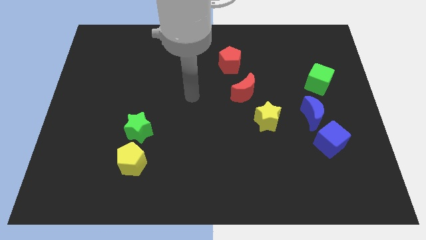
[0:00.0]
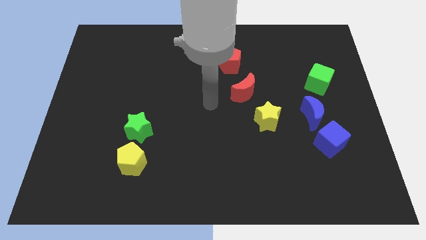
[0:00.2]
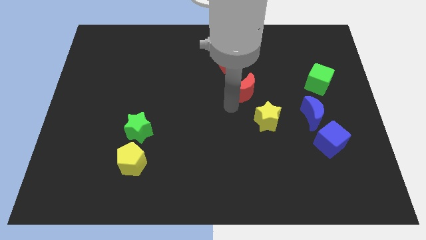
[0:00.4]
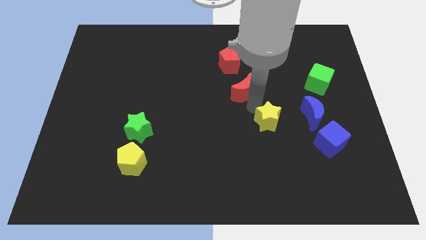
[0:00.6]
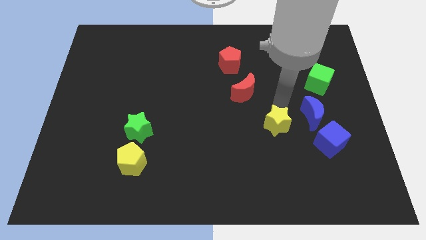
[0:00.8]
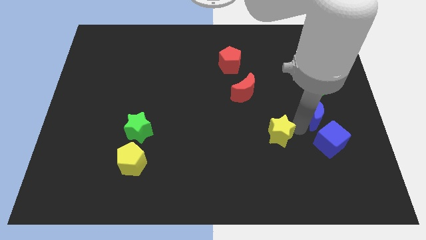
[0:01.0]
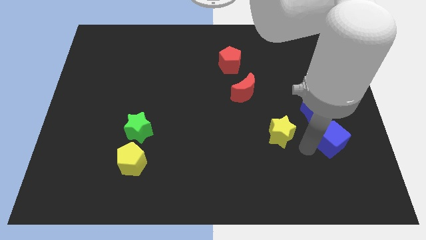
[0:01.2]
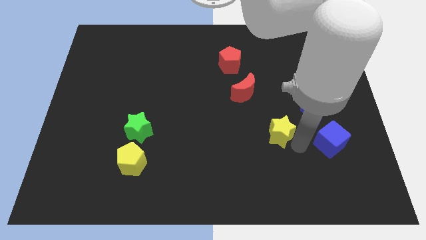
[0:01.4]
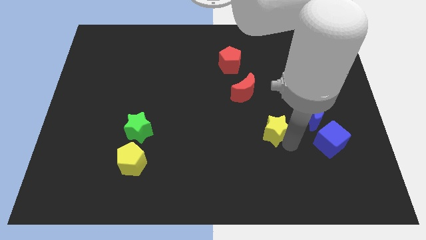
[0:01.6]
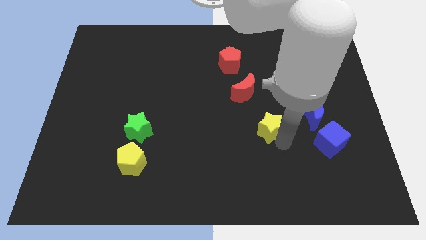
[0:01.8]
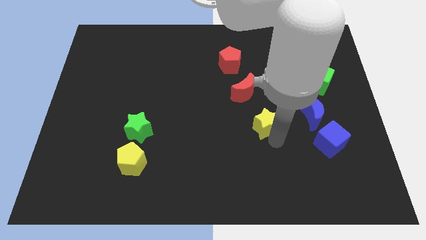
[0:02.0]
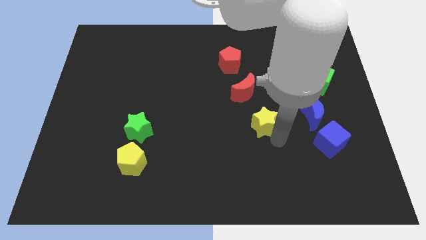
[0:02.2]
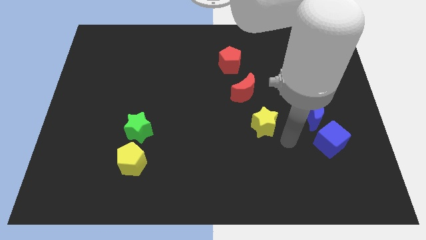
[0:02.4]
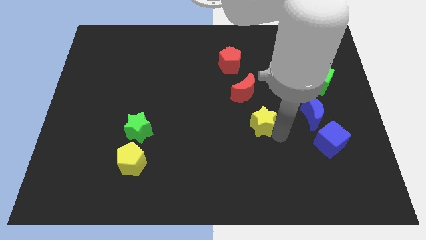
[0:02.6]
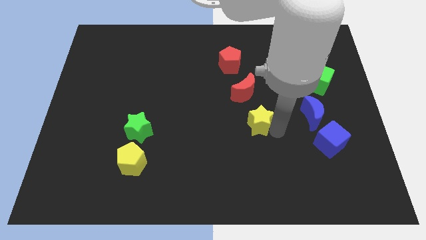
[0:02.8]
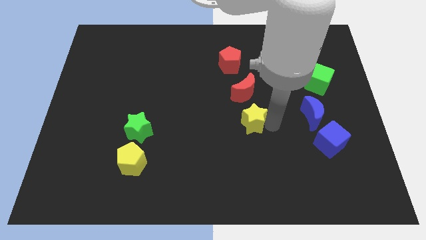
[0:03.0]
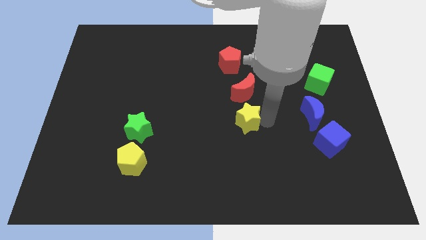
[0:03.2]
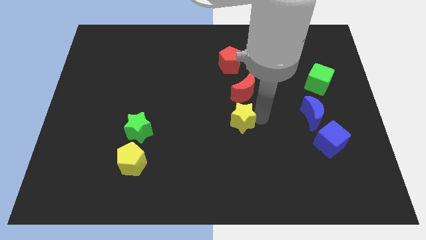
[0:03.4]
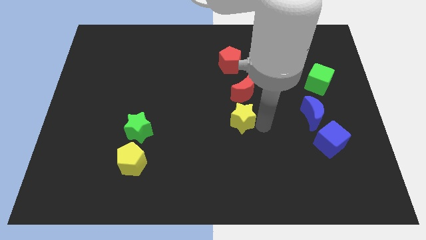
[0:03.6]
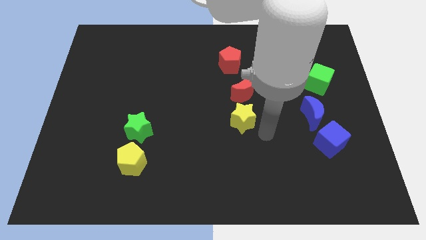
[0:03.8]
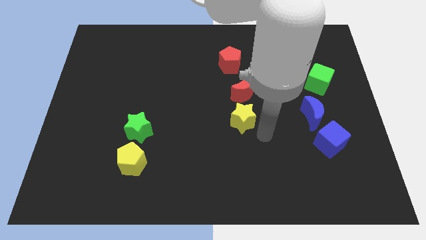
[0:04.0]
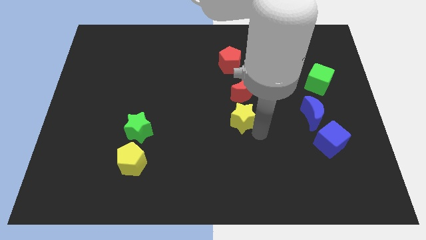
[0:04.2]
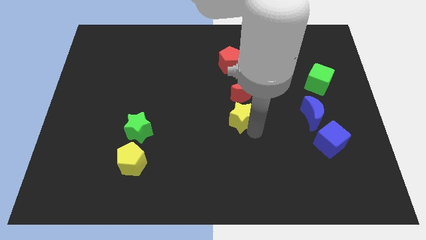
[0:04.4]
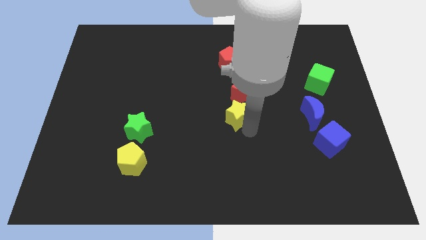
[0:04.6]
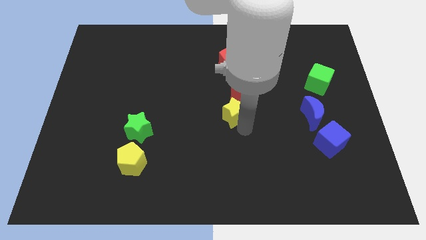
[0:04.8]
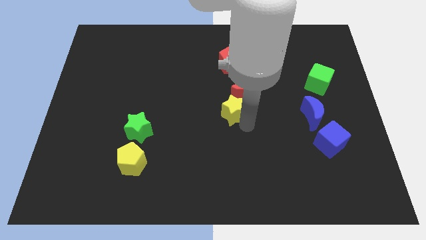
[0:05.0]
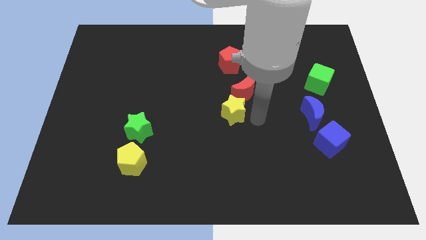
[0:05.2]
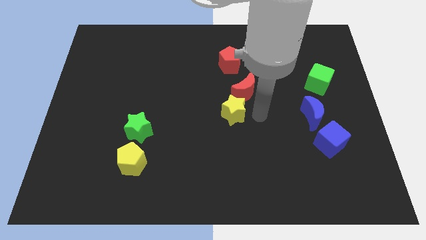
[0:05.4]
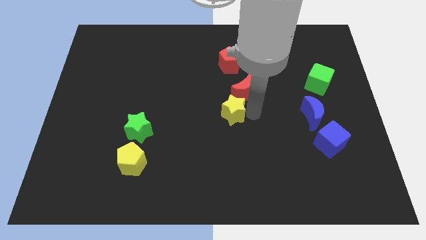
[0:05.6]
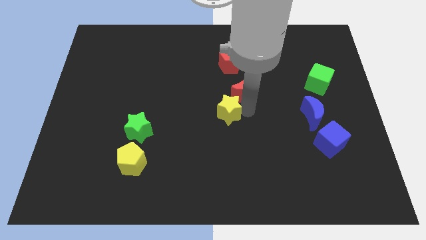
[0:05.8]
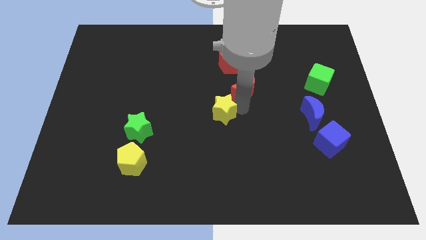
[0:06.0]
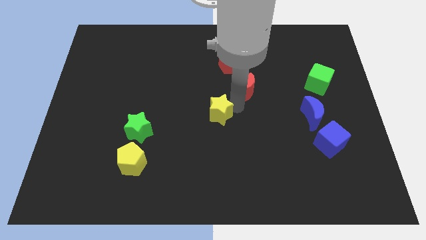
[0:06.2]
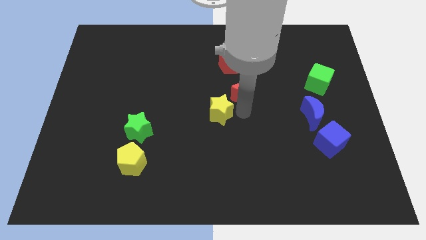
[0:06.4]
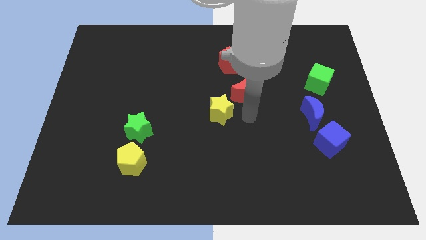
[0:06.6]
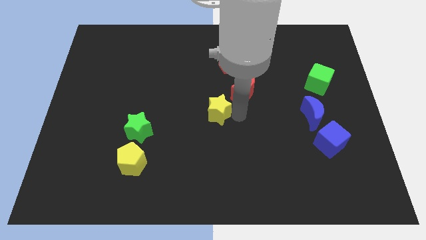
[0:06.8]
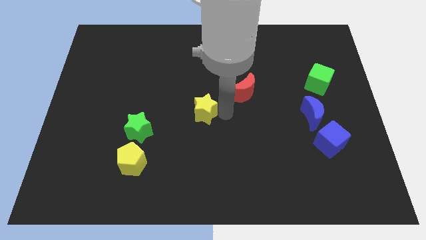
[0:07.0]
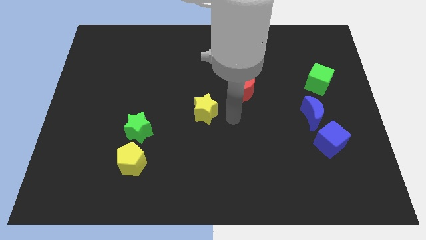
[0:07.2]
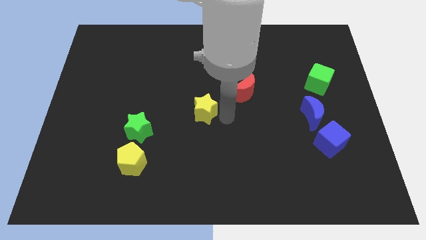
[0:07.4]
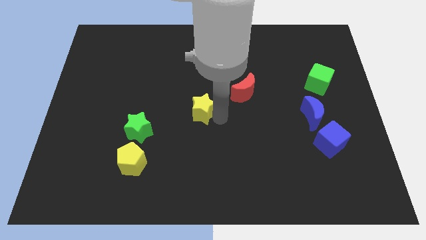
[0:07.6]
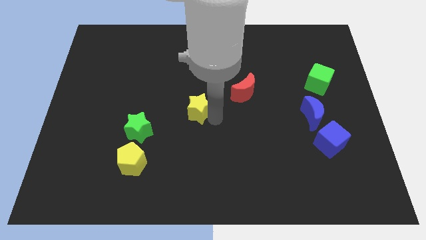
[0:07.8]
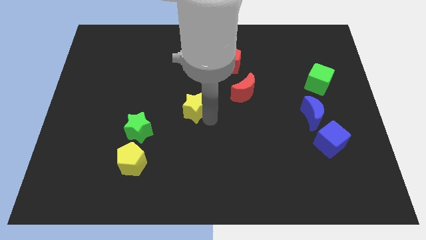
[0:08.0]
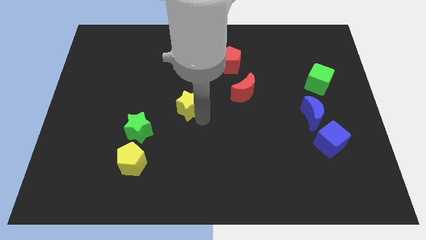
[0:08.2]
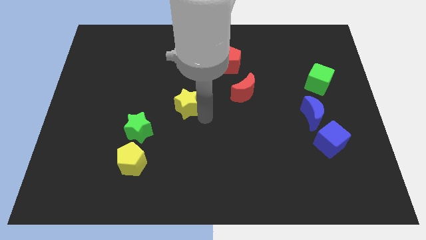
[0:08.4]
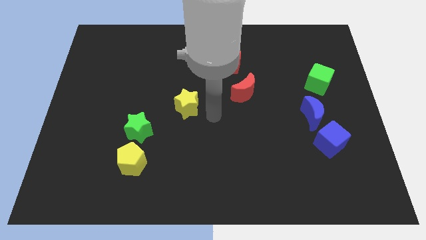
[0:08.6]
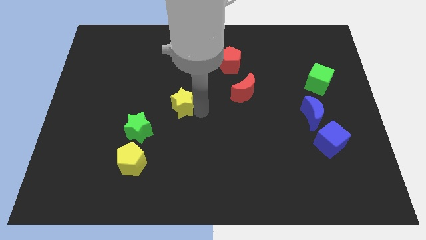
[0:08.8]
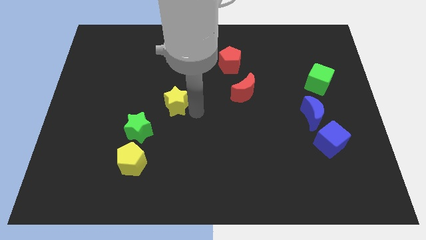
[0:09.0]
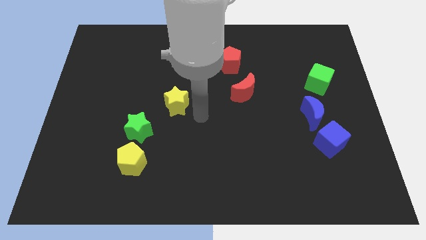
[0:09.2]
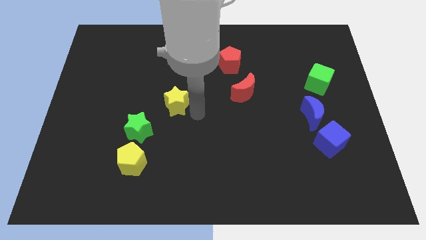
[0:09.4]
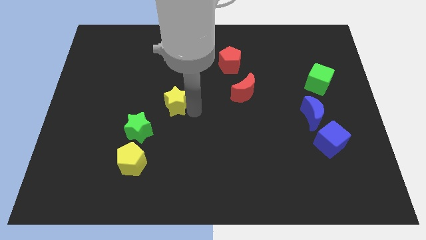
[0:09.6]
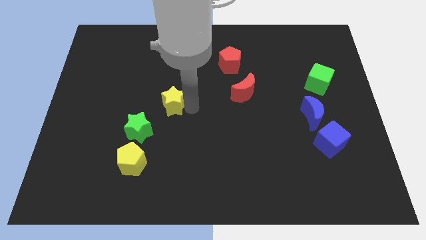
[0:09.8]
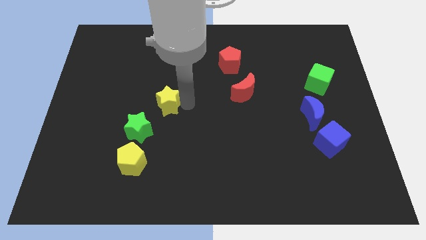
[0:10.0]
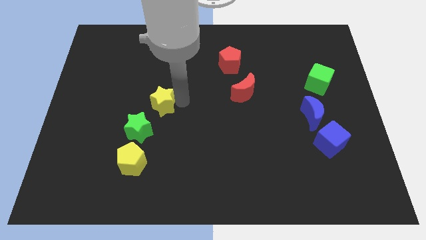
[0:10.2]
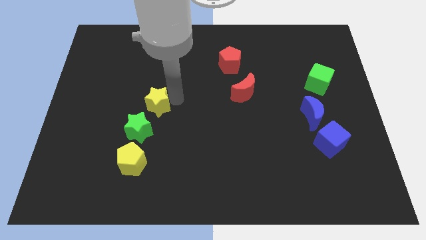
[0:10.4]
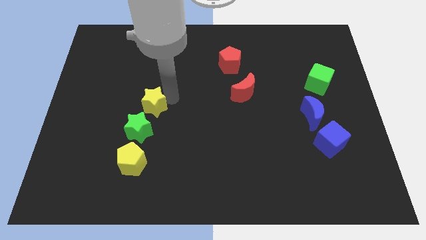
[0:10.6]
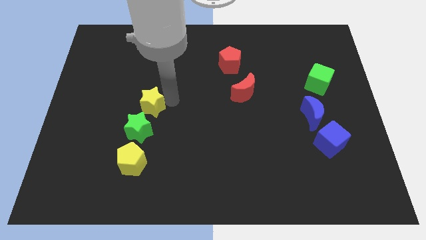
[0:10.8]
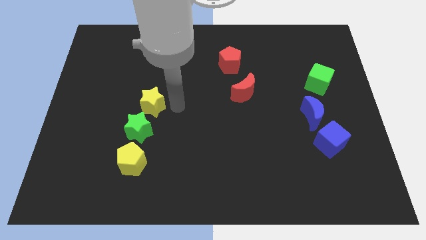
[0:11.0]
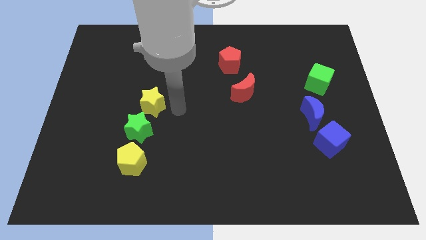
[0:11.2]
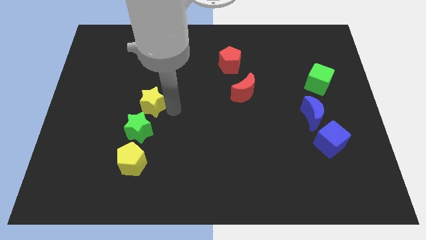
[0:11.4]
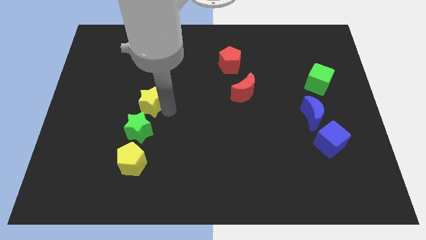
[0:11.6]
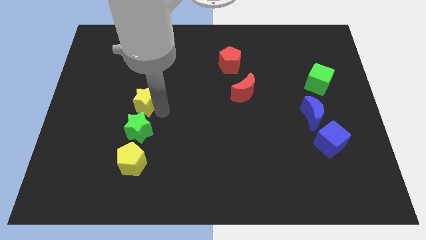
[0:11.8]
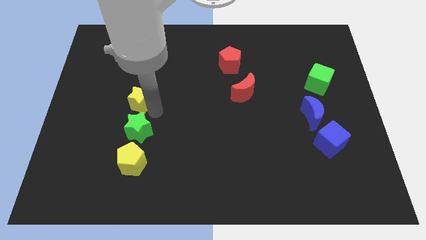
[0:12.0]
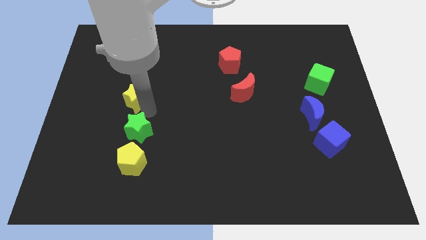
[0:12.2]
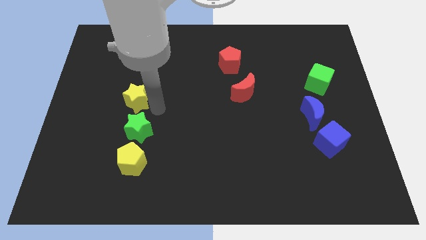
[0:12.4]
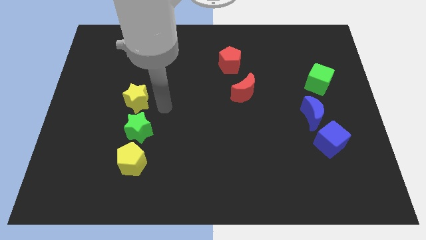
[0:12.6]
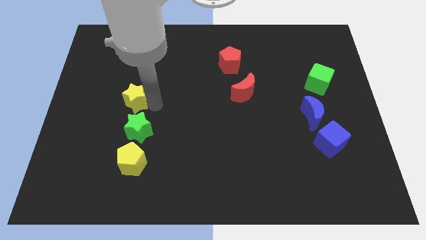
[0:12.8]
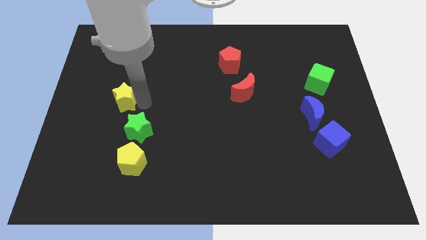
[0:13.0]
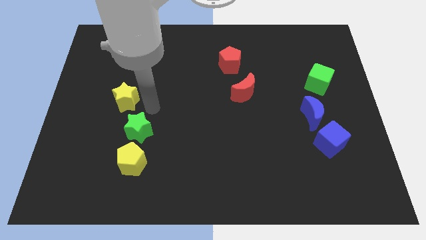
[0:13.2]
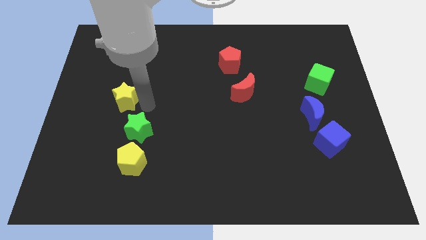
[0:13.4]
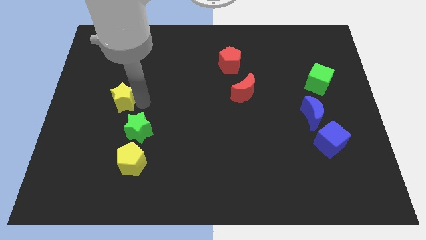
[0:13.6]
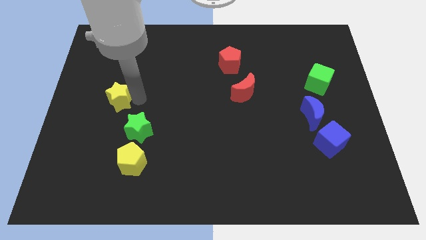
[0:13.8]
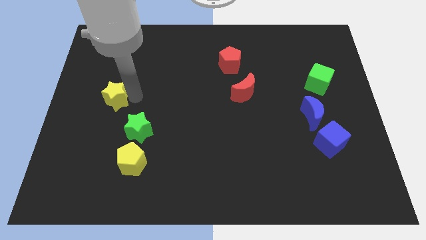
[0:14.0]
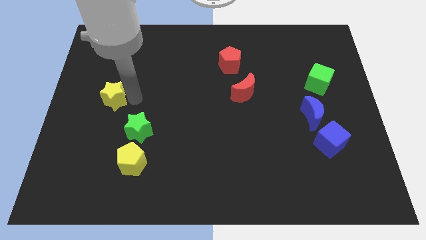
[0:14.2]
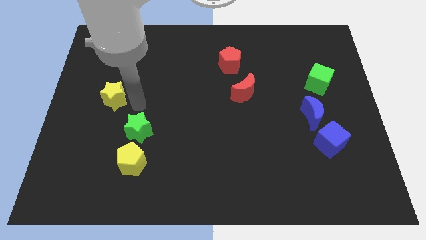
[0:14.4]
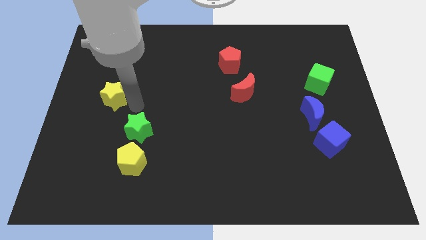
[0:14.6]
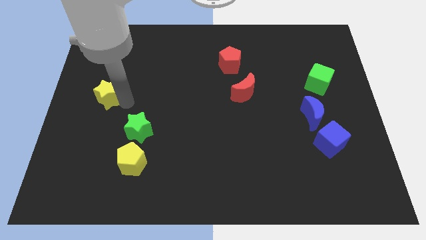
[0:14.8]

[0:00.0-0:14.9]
put the yellow star to the left side of the board

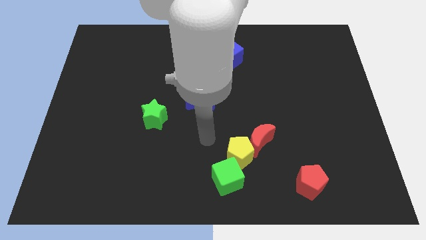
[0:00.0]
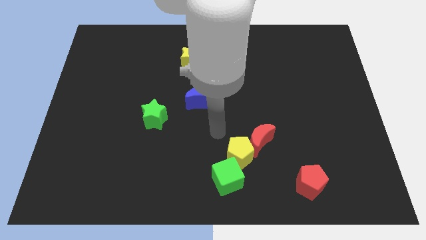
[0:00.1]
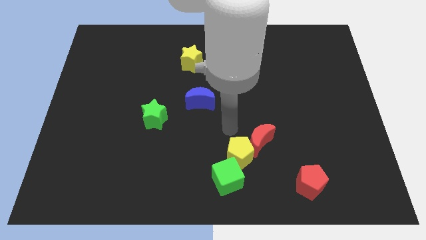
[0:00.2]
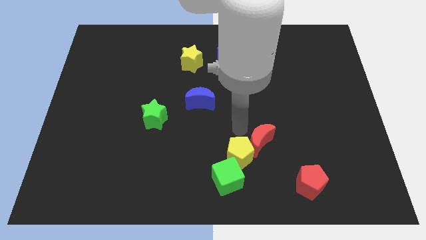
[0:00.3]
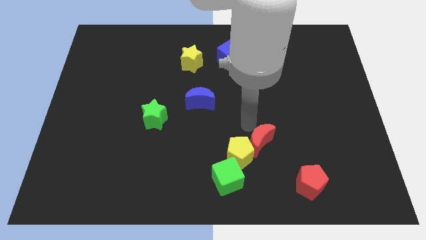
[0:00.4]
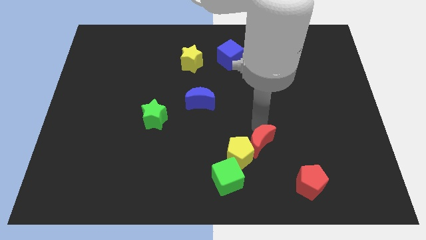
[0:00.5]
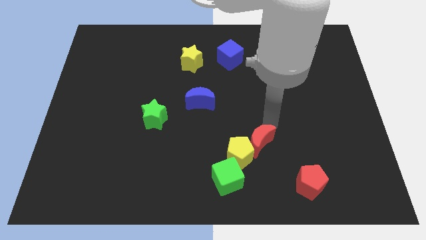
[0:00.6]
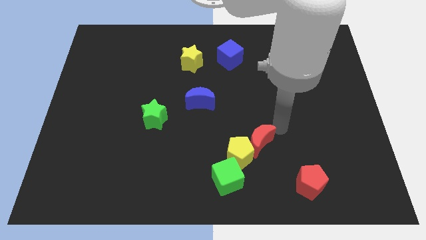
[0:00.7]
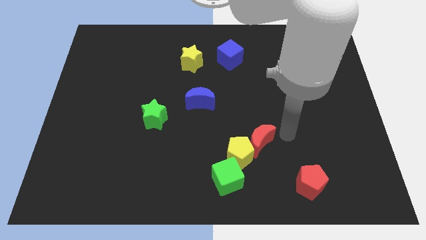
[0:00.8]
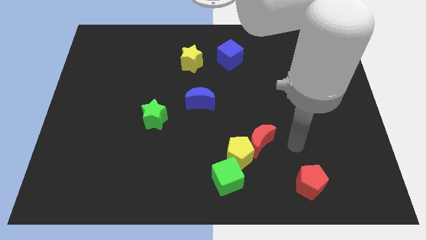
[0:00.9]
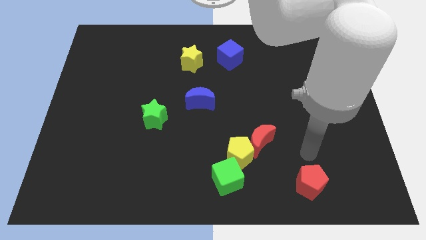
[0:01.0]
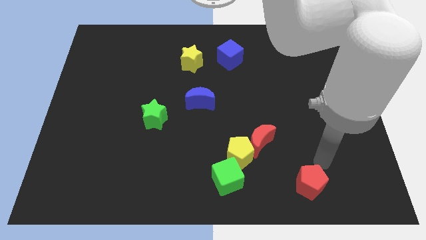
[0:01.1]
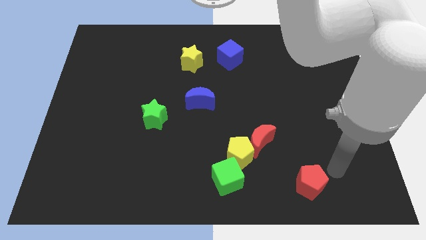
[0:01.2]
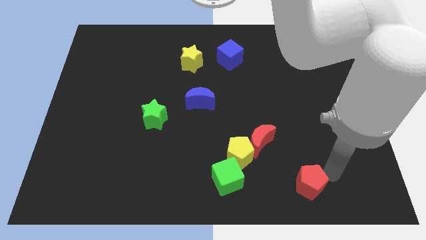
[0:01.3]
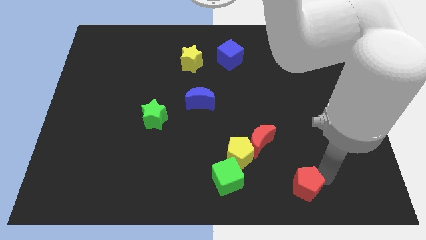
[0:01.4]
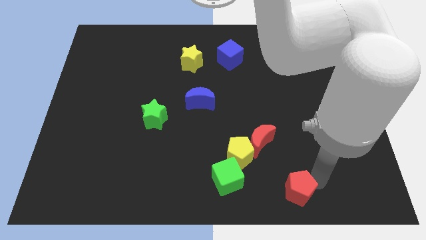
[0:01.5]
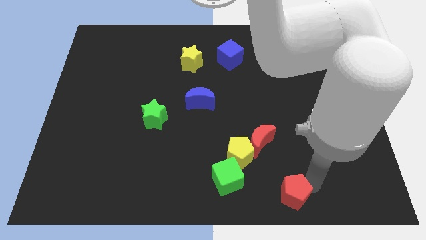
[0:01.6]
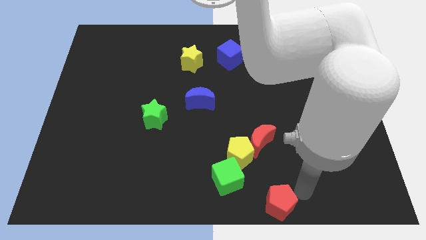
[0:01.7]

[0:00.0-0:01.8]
put the red pentagon to the bottom
